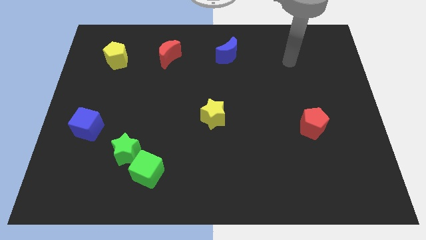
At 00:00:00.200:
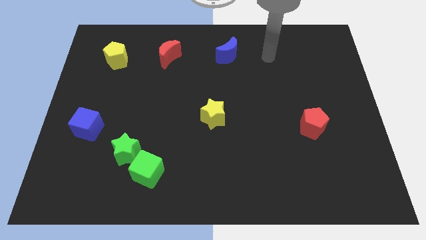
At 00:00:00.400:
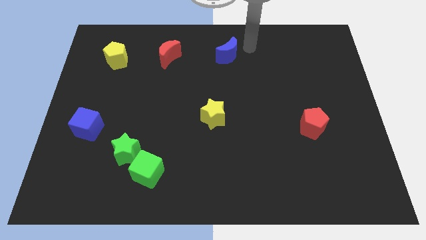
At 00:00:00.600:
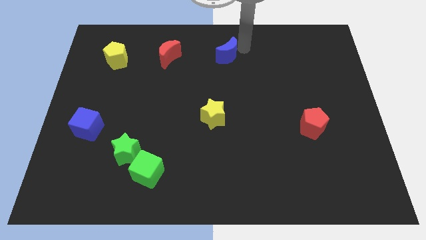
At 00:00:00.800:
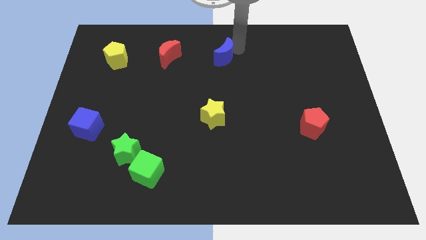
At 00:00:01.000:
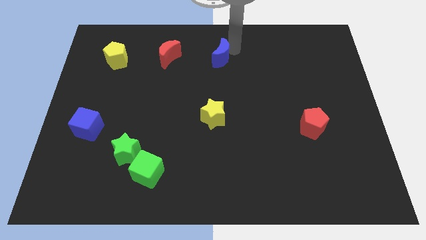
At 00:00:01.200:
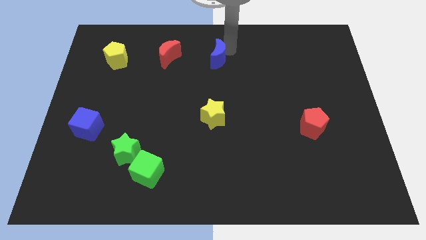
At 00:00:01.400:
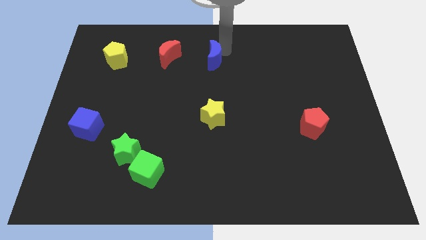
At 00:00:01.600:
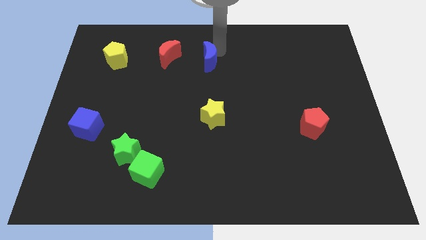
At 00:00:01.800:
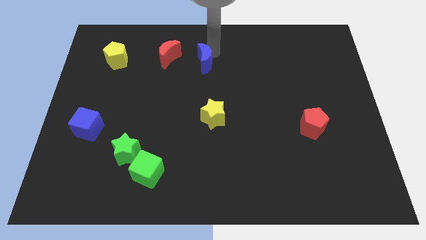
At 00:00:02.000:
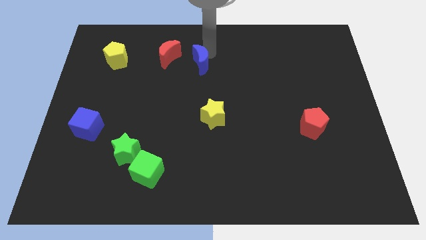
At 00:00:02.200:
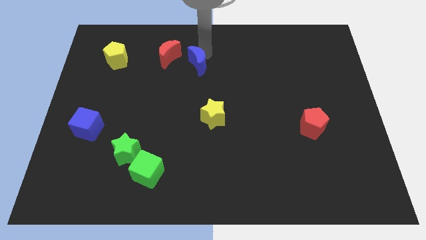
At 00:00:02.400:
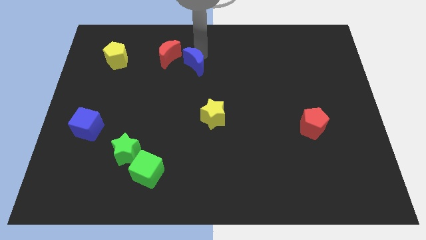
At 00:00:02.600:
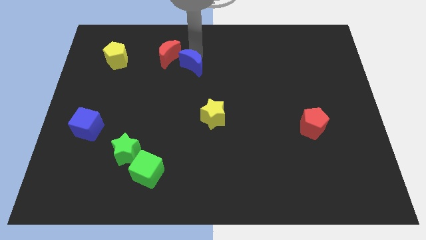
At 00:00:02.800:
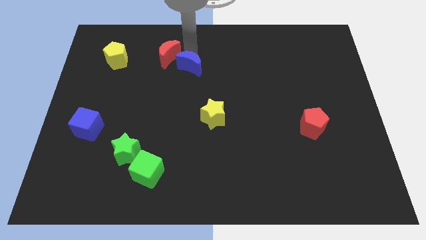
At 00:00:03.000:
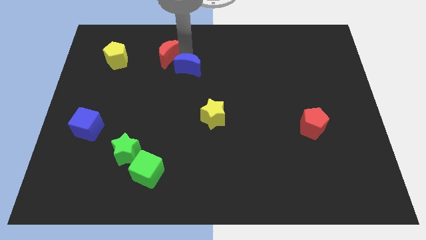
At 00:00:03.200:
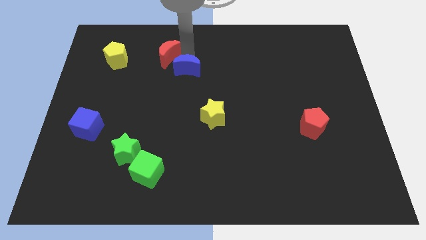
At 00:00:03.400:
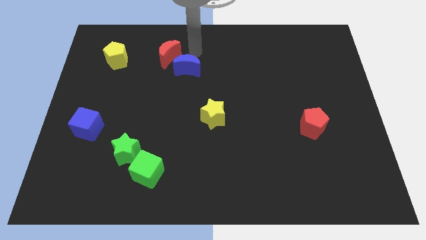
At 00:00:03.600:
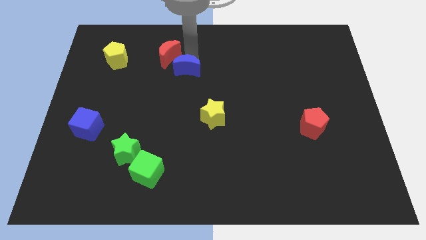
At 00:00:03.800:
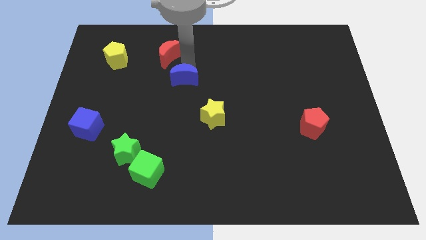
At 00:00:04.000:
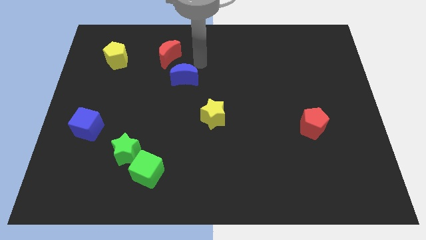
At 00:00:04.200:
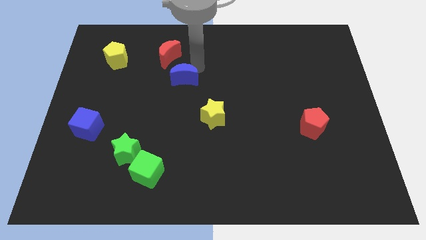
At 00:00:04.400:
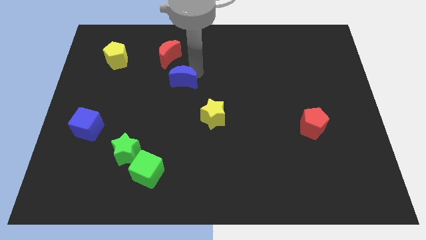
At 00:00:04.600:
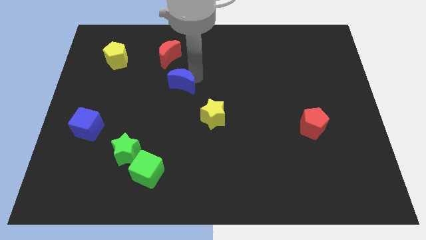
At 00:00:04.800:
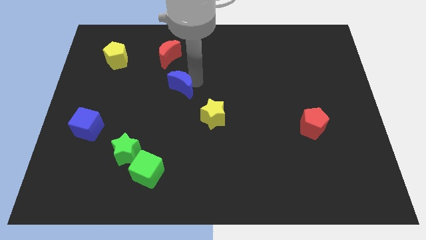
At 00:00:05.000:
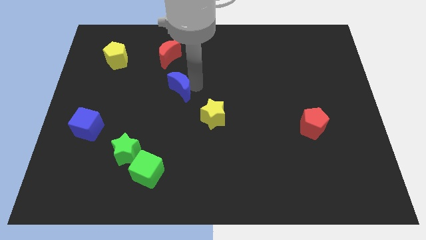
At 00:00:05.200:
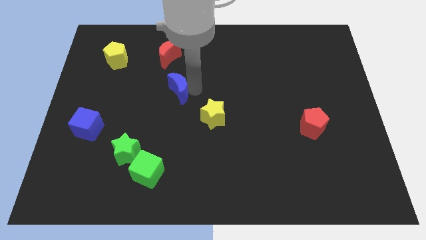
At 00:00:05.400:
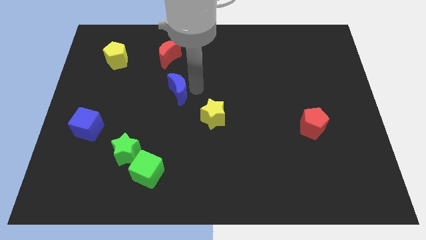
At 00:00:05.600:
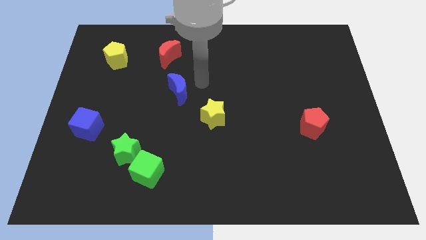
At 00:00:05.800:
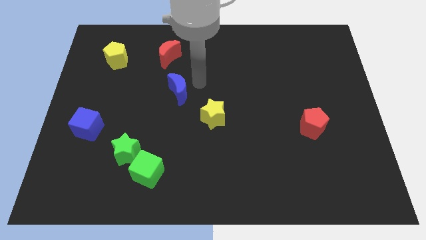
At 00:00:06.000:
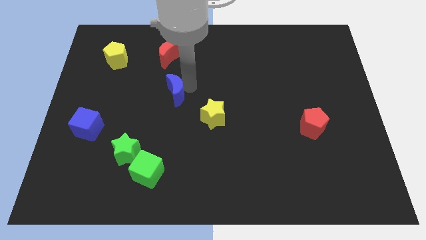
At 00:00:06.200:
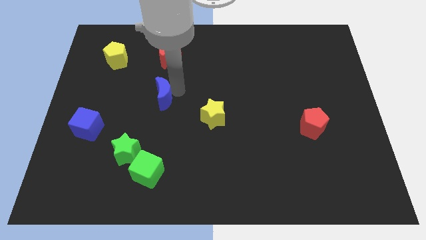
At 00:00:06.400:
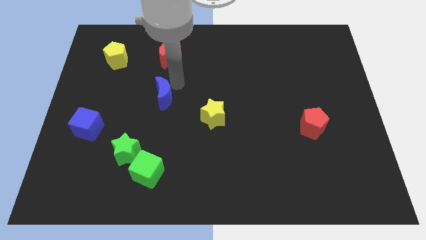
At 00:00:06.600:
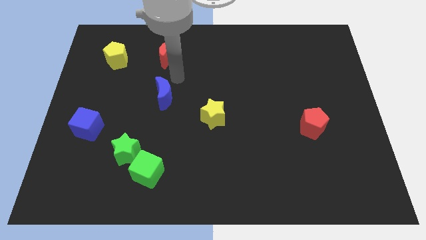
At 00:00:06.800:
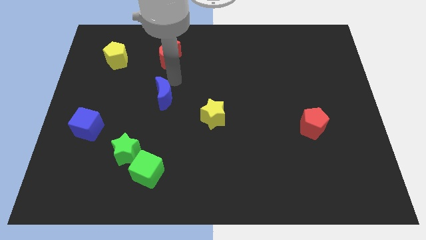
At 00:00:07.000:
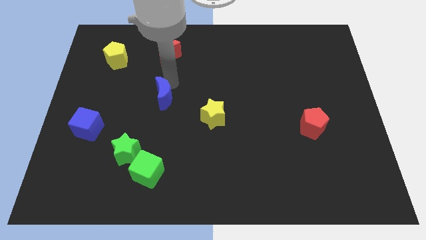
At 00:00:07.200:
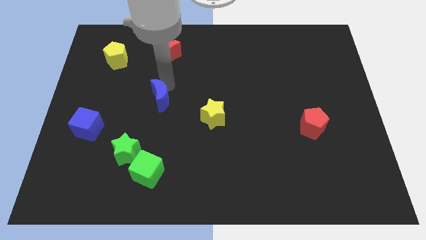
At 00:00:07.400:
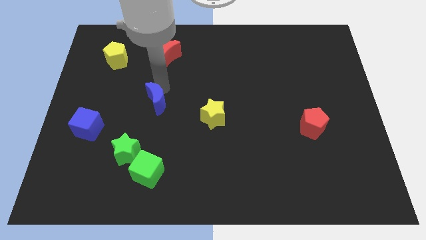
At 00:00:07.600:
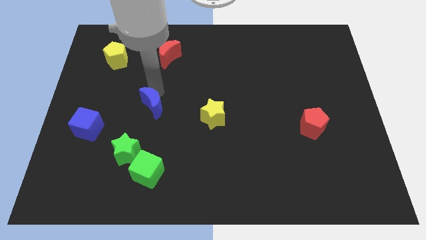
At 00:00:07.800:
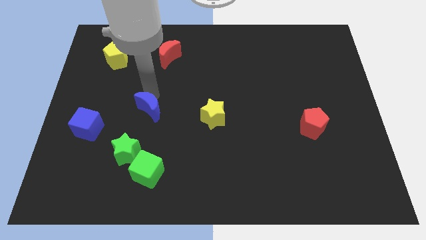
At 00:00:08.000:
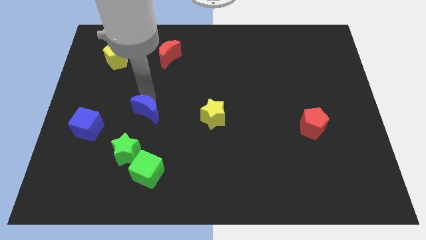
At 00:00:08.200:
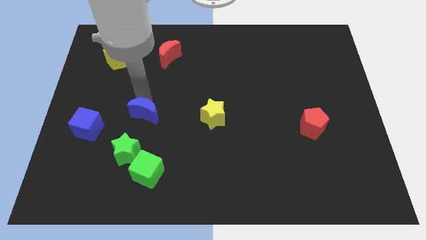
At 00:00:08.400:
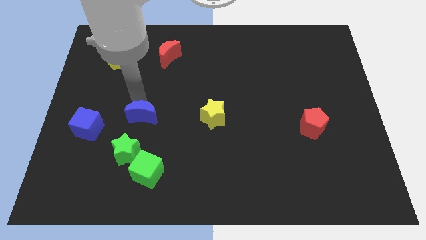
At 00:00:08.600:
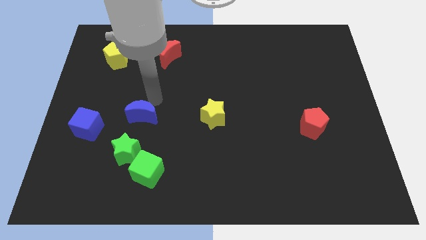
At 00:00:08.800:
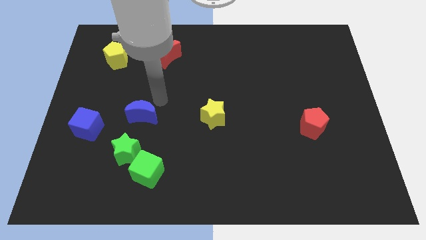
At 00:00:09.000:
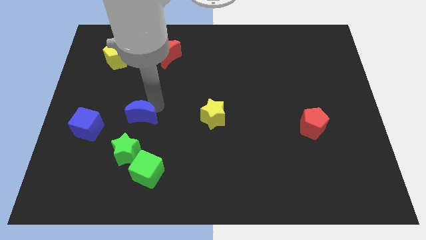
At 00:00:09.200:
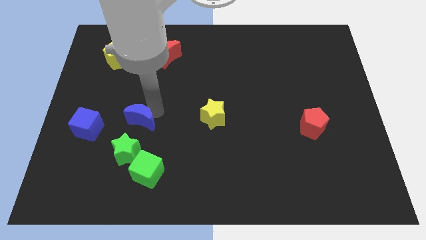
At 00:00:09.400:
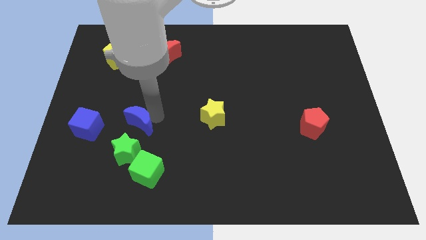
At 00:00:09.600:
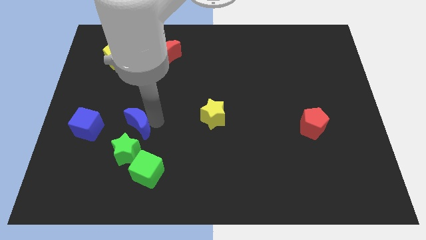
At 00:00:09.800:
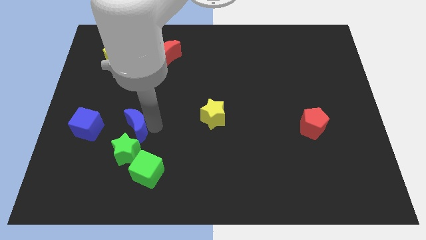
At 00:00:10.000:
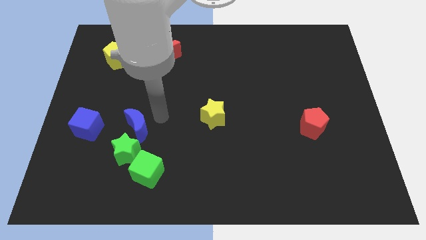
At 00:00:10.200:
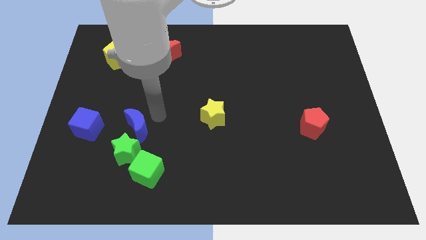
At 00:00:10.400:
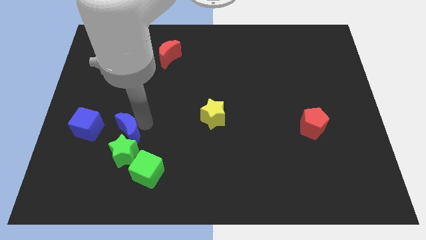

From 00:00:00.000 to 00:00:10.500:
move the blue moon to the top left side of the green cube

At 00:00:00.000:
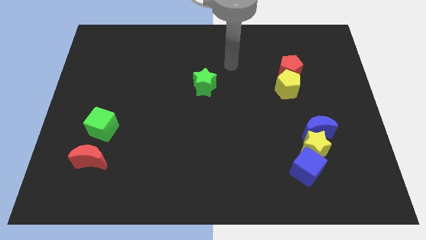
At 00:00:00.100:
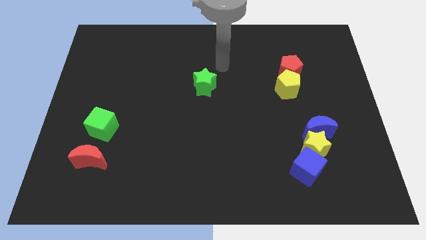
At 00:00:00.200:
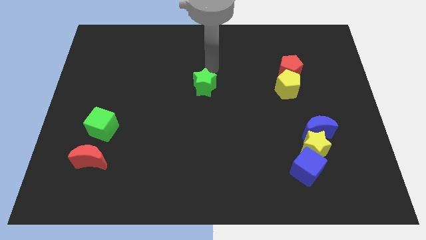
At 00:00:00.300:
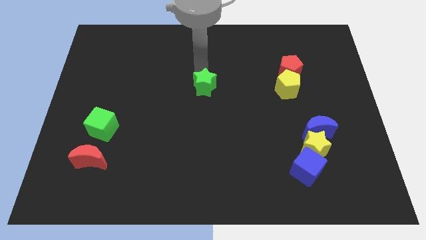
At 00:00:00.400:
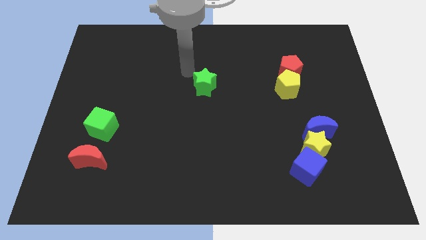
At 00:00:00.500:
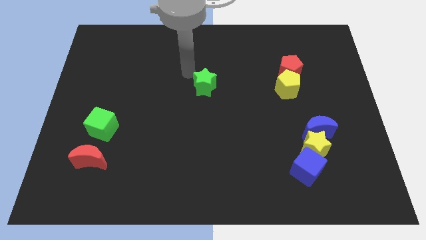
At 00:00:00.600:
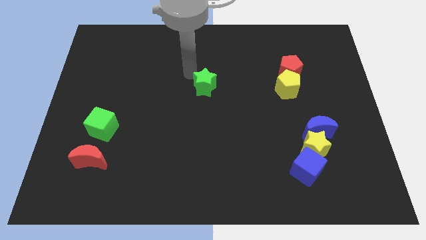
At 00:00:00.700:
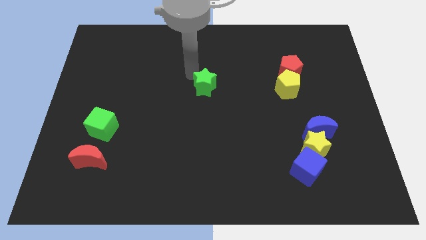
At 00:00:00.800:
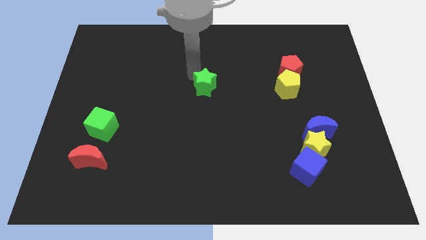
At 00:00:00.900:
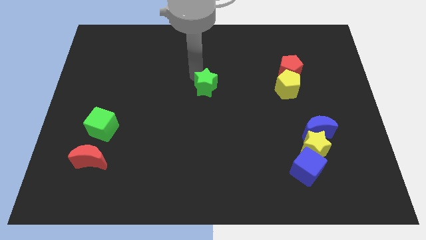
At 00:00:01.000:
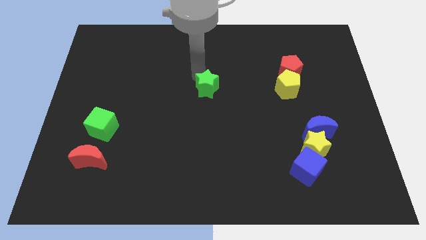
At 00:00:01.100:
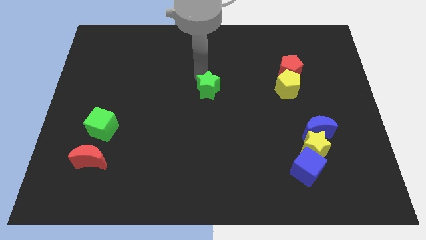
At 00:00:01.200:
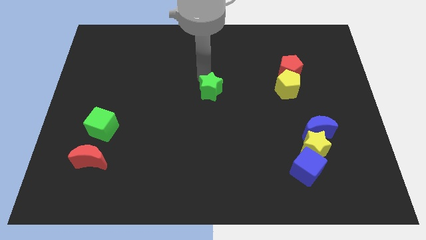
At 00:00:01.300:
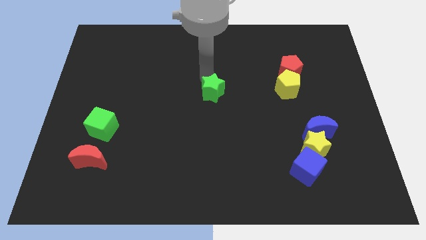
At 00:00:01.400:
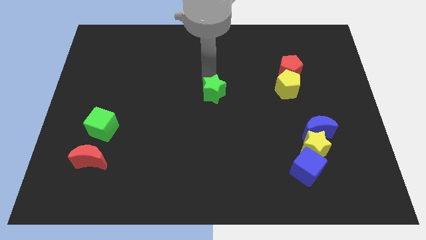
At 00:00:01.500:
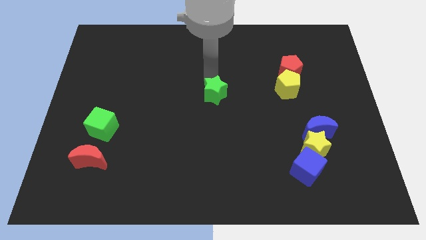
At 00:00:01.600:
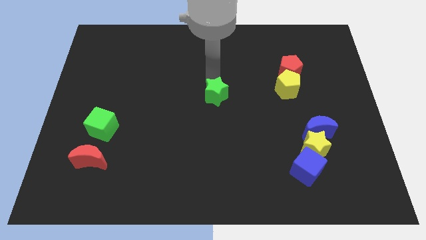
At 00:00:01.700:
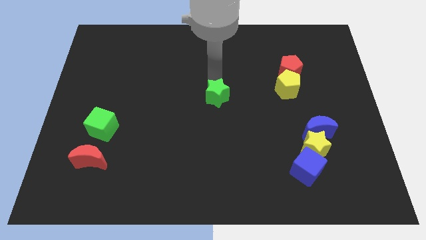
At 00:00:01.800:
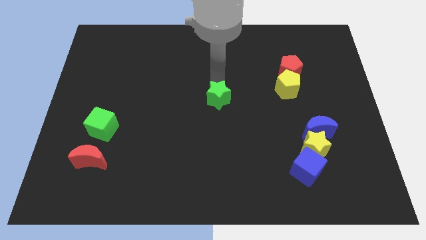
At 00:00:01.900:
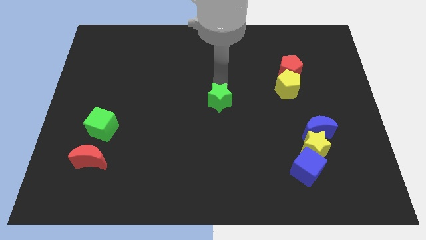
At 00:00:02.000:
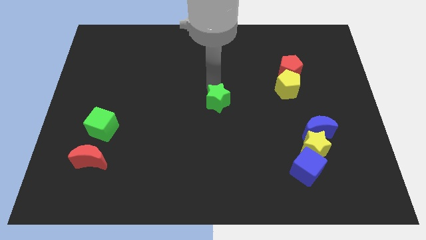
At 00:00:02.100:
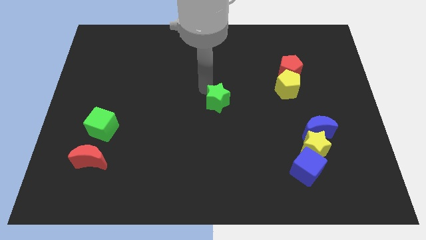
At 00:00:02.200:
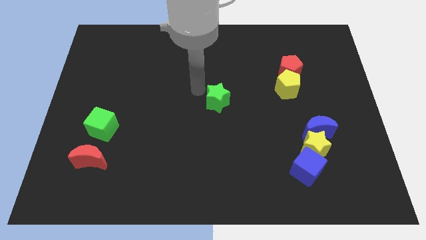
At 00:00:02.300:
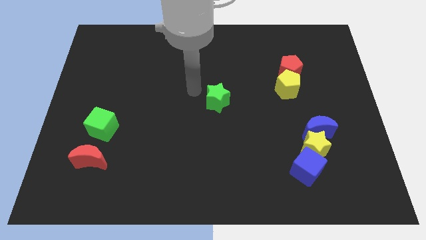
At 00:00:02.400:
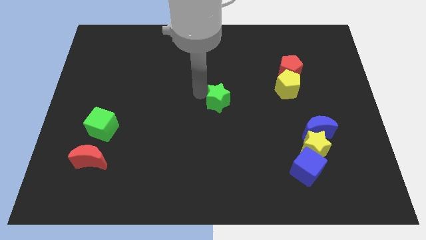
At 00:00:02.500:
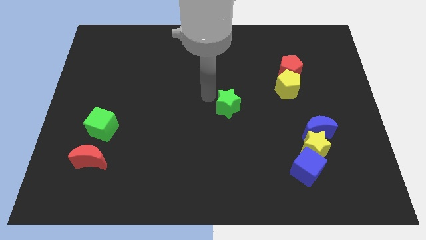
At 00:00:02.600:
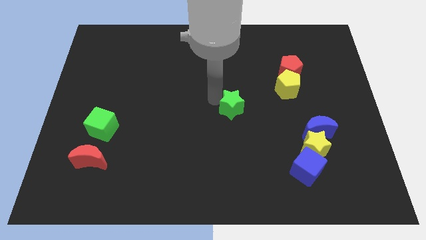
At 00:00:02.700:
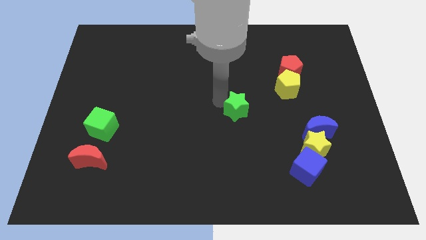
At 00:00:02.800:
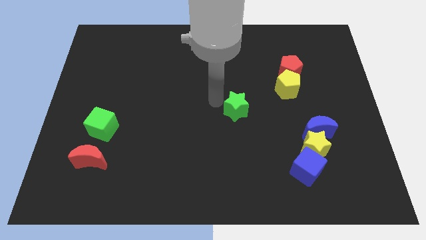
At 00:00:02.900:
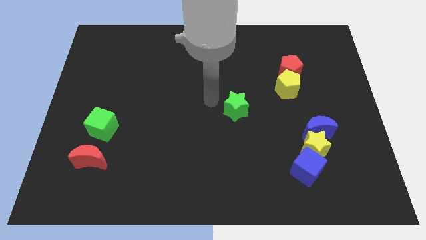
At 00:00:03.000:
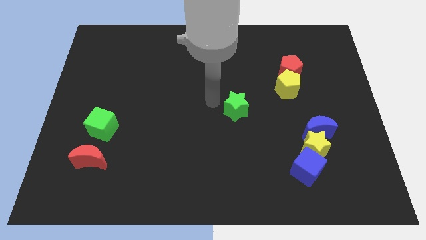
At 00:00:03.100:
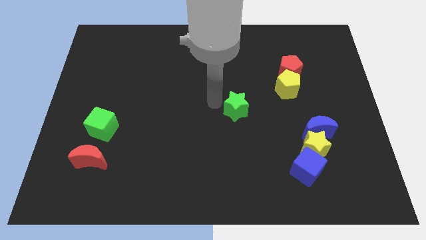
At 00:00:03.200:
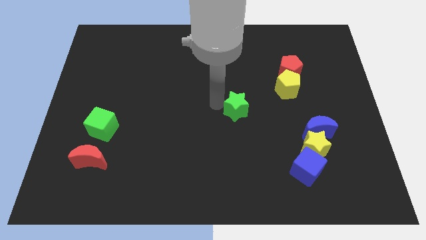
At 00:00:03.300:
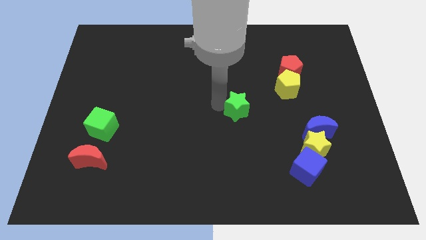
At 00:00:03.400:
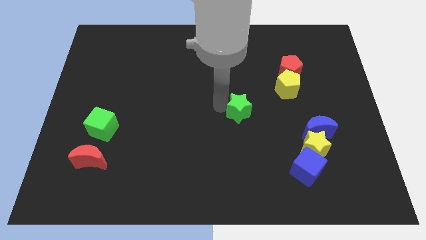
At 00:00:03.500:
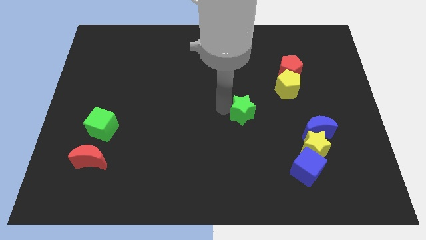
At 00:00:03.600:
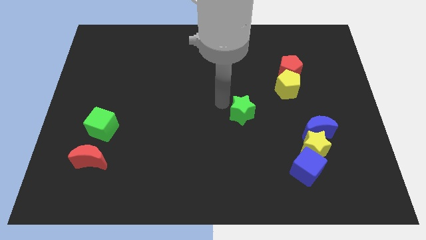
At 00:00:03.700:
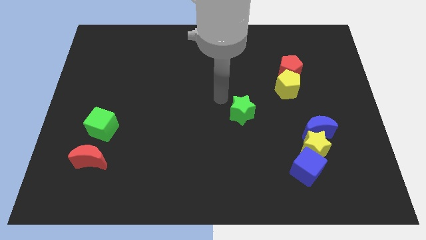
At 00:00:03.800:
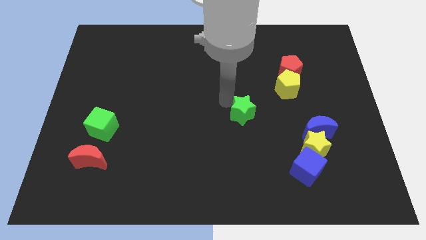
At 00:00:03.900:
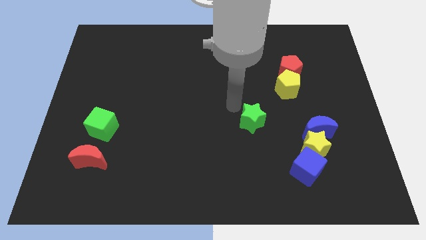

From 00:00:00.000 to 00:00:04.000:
put the green star to the left side of the blue moon
